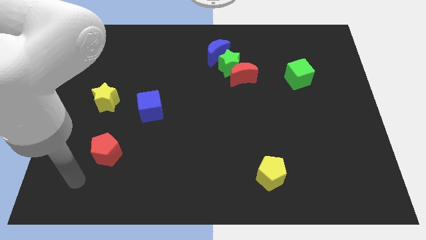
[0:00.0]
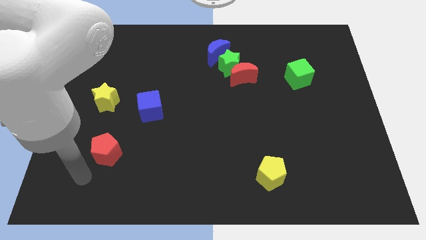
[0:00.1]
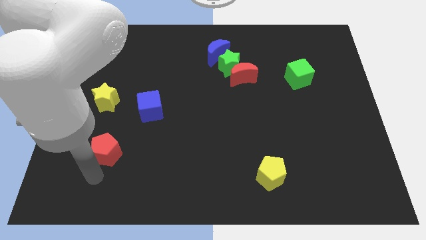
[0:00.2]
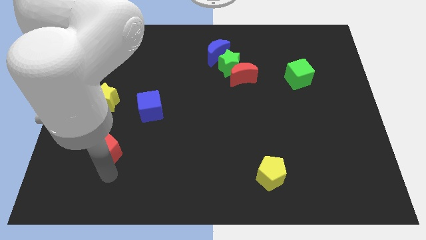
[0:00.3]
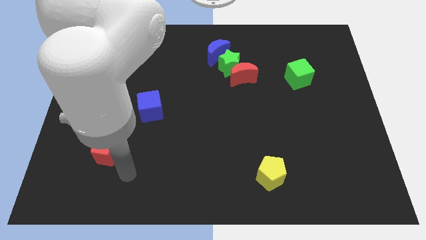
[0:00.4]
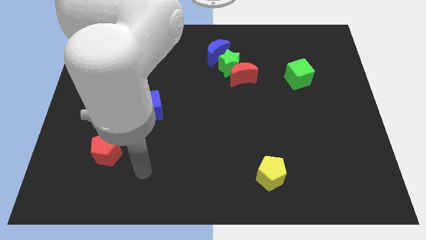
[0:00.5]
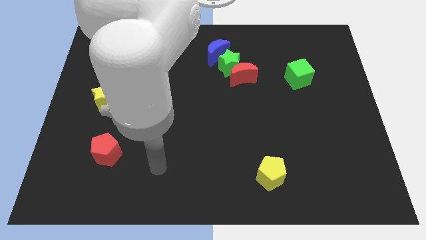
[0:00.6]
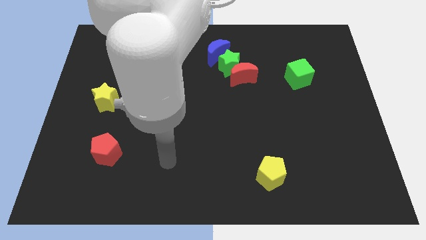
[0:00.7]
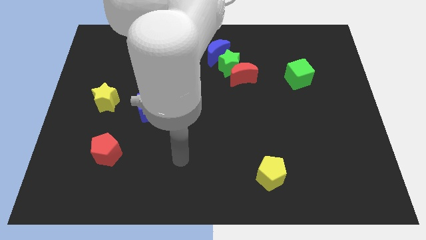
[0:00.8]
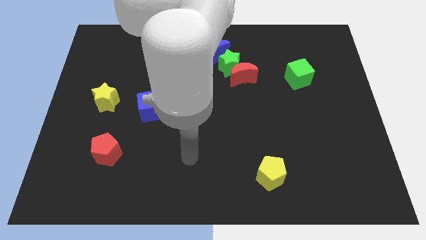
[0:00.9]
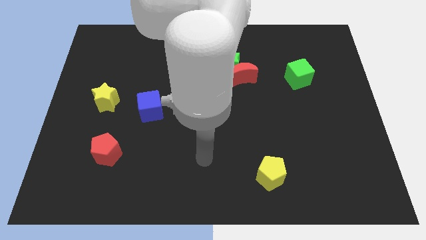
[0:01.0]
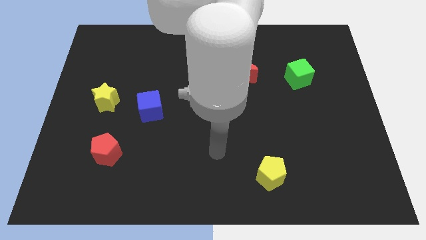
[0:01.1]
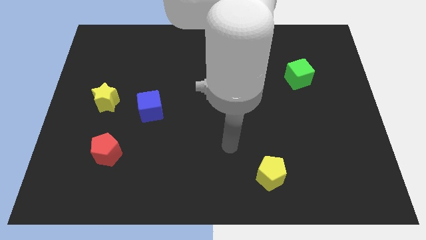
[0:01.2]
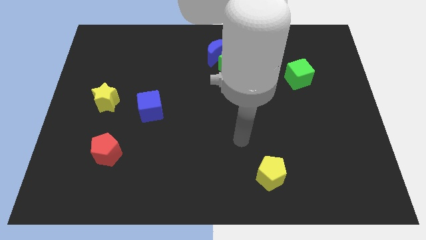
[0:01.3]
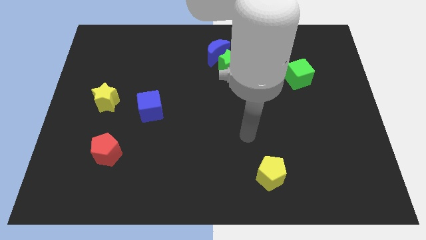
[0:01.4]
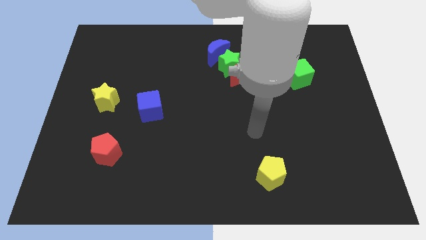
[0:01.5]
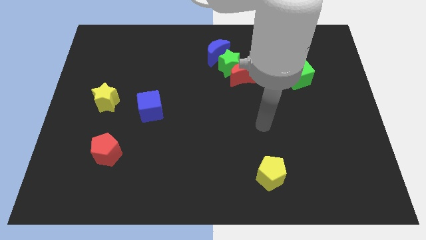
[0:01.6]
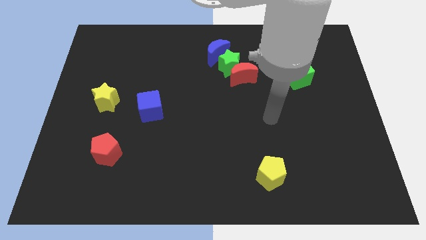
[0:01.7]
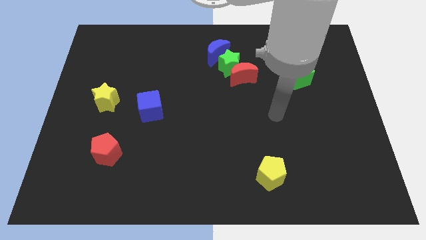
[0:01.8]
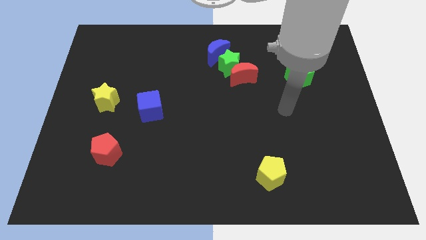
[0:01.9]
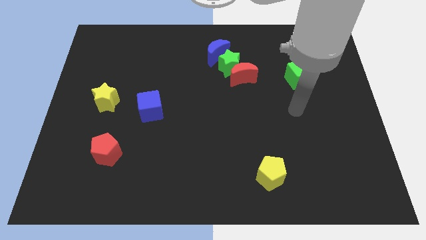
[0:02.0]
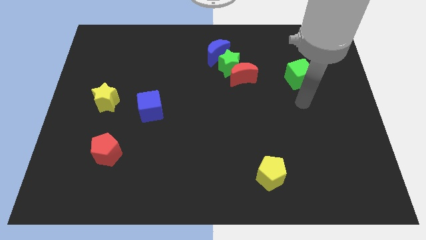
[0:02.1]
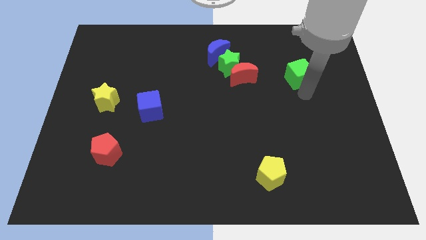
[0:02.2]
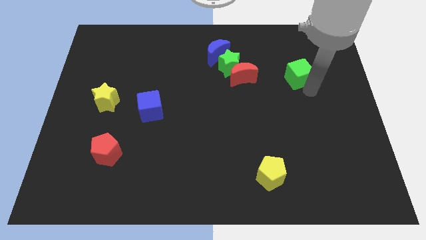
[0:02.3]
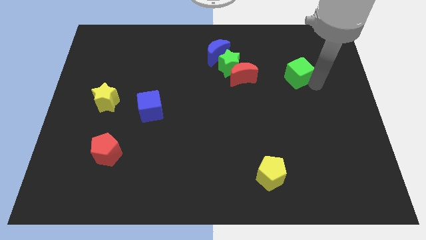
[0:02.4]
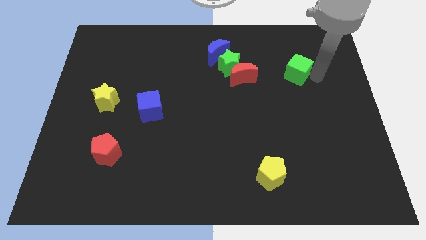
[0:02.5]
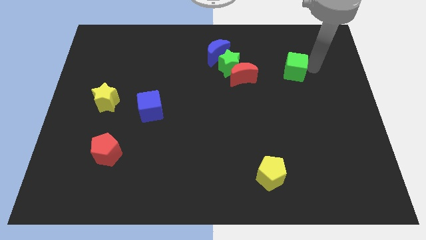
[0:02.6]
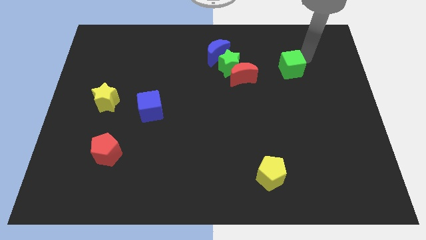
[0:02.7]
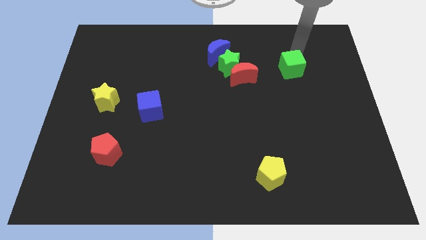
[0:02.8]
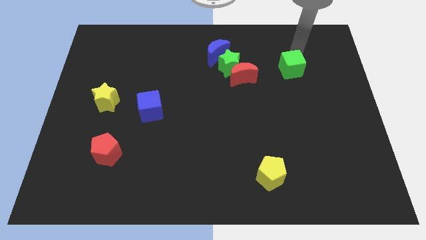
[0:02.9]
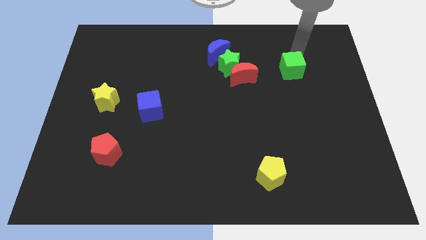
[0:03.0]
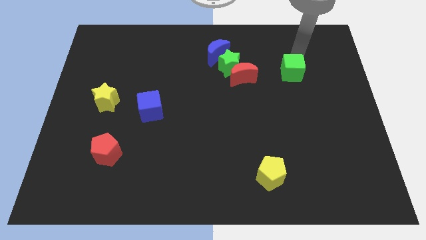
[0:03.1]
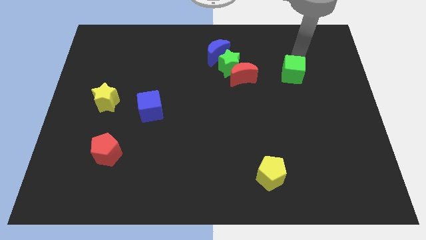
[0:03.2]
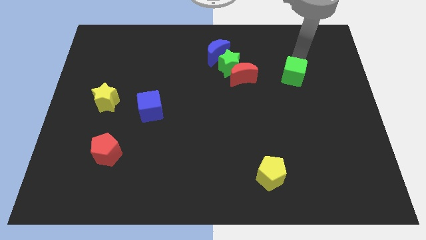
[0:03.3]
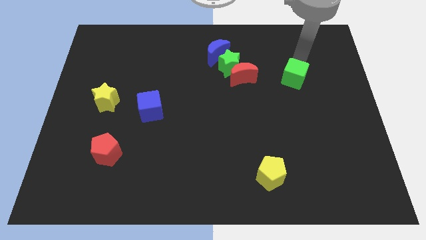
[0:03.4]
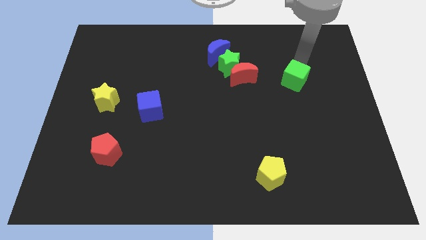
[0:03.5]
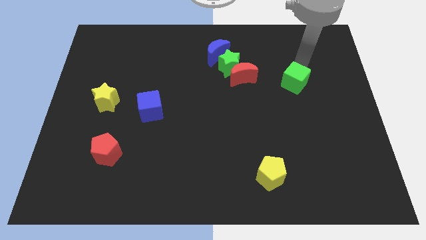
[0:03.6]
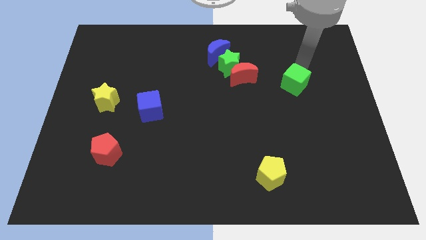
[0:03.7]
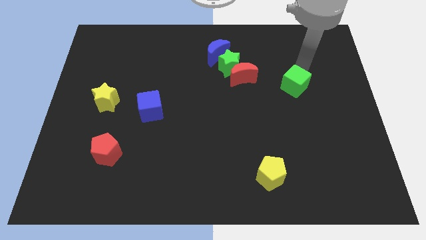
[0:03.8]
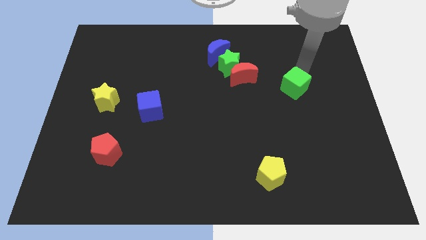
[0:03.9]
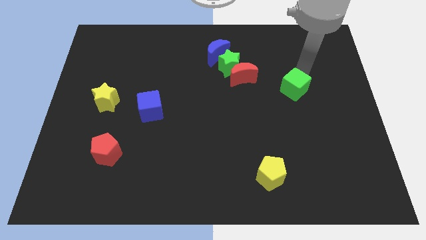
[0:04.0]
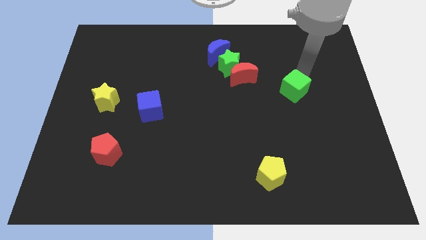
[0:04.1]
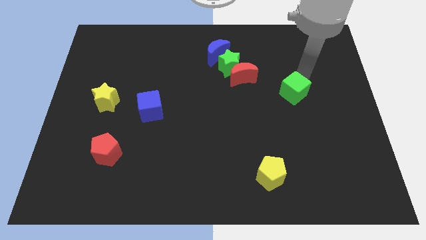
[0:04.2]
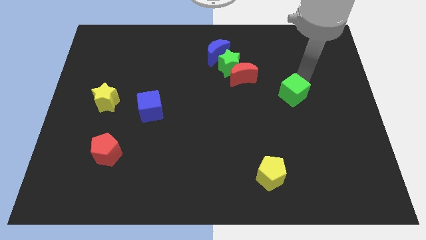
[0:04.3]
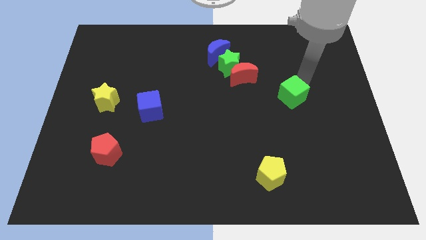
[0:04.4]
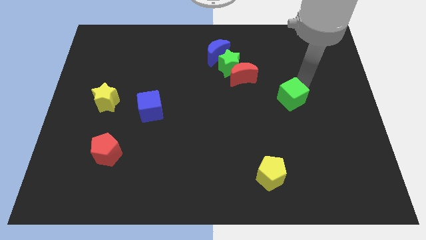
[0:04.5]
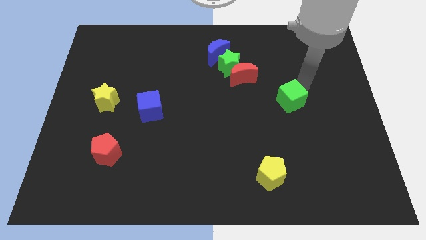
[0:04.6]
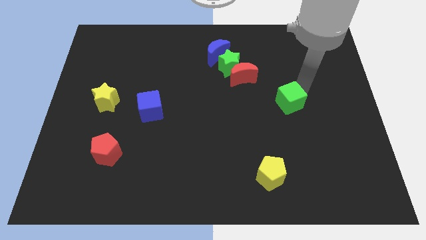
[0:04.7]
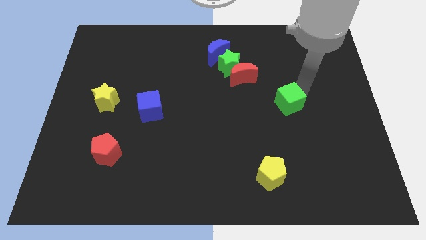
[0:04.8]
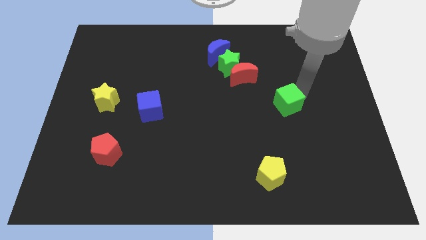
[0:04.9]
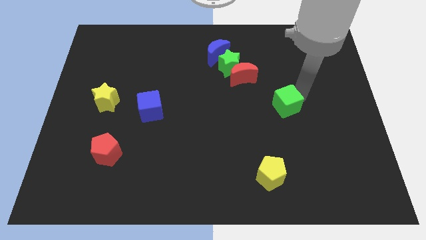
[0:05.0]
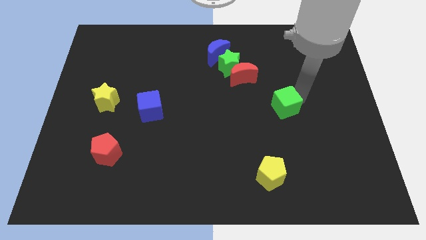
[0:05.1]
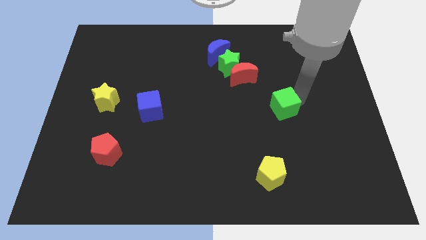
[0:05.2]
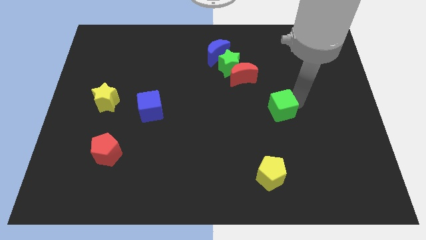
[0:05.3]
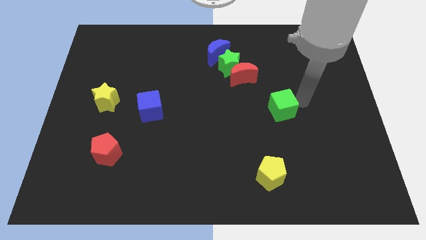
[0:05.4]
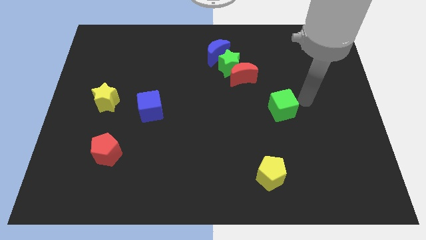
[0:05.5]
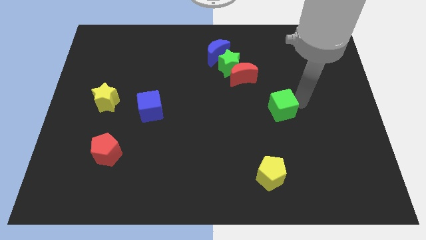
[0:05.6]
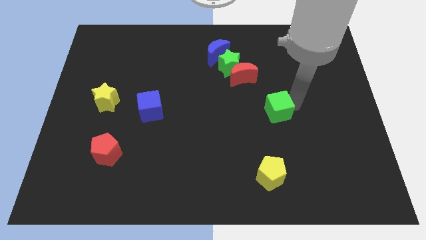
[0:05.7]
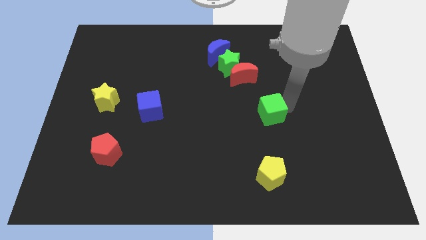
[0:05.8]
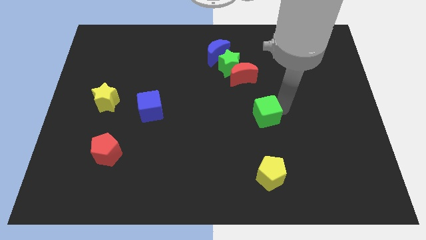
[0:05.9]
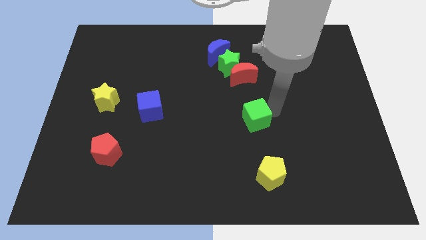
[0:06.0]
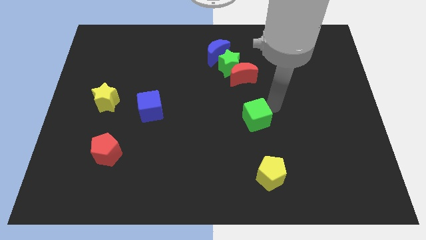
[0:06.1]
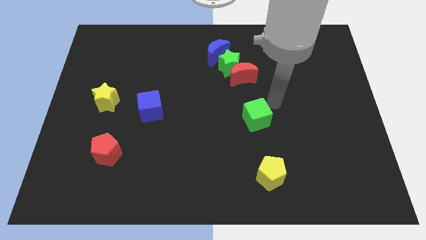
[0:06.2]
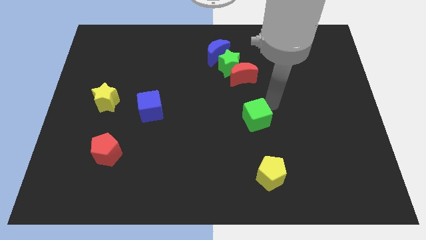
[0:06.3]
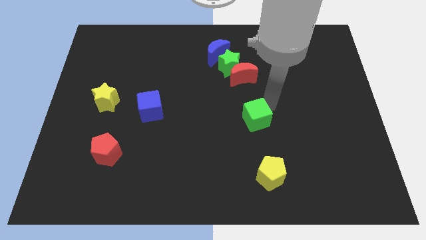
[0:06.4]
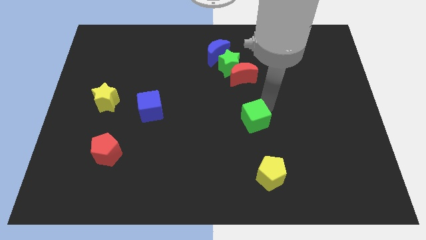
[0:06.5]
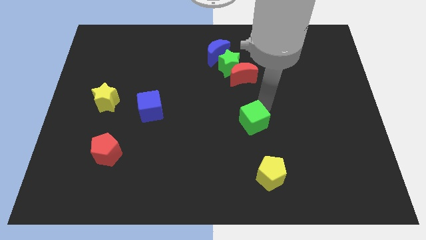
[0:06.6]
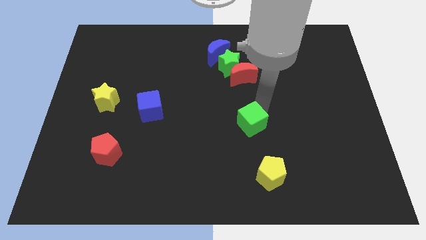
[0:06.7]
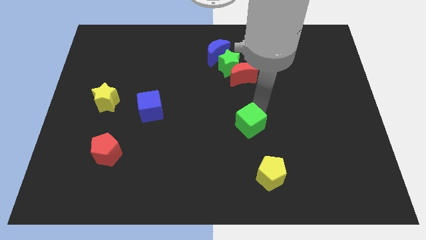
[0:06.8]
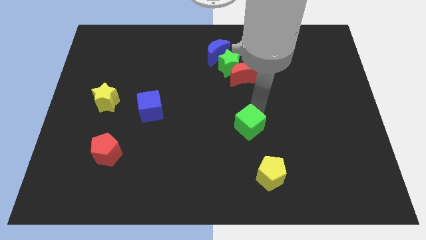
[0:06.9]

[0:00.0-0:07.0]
slide the green cube downwards and then left

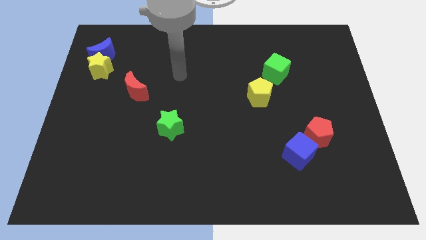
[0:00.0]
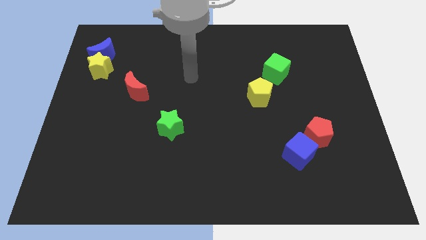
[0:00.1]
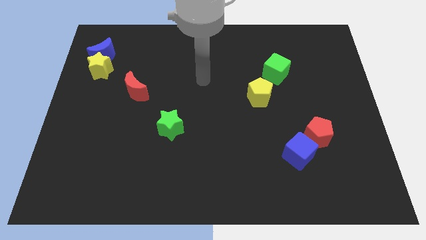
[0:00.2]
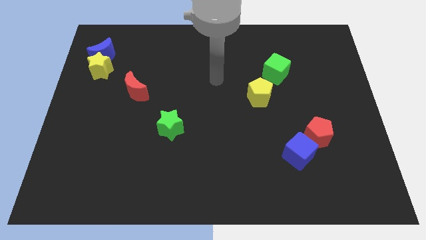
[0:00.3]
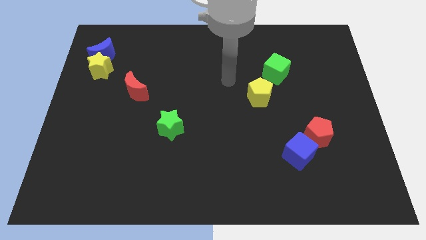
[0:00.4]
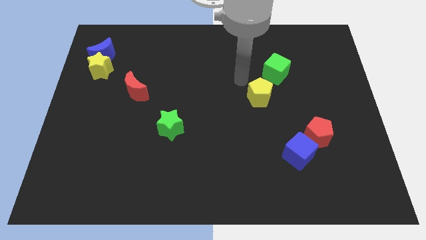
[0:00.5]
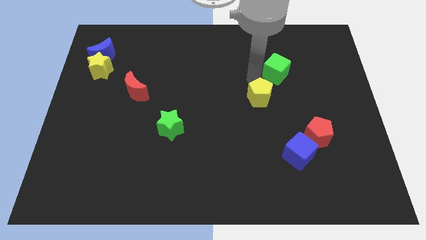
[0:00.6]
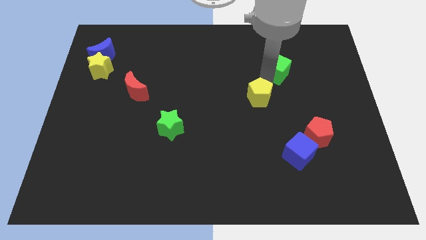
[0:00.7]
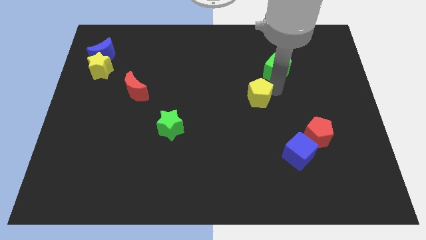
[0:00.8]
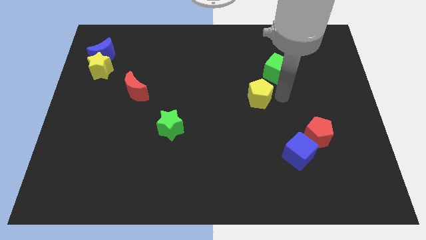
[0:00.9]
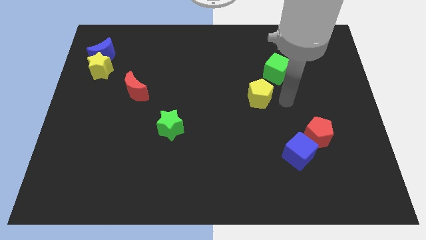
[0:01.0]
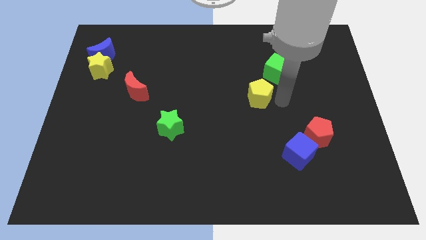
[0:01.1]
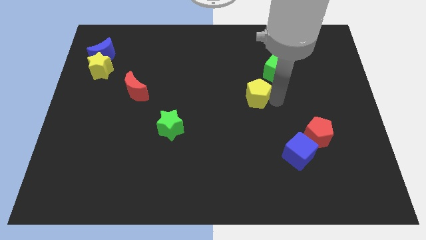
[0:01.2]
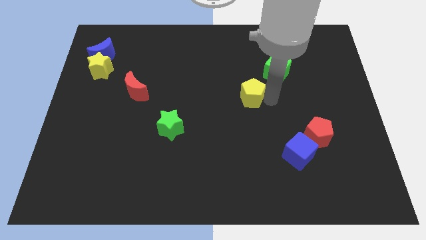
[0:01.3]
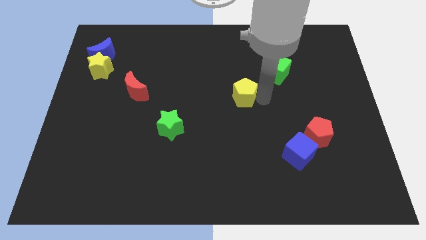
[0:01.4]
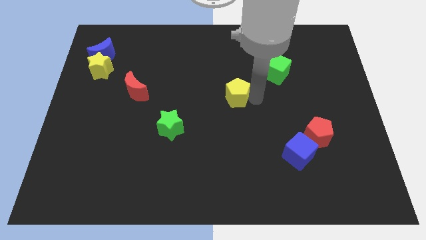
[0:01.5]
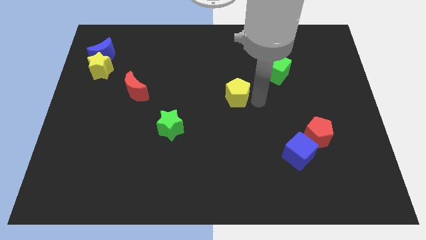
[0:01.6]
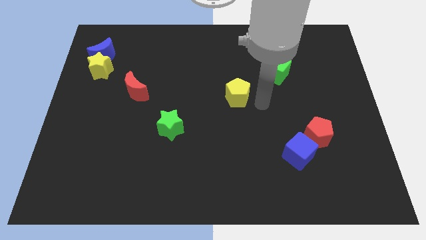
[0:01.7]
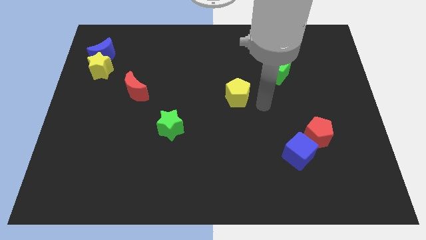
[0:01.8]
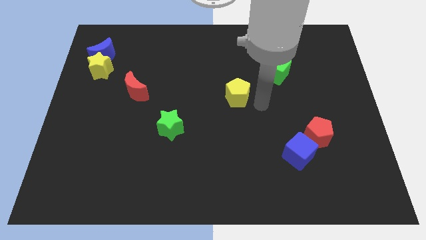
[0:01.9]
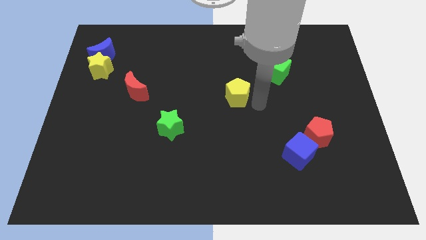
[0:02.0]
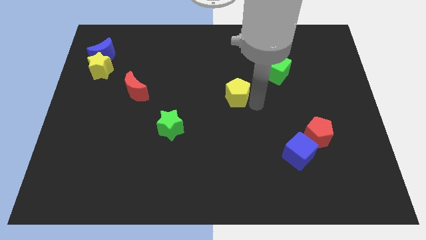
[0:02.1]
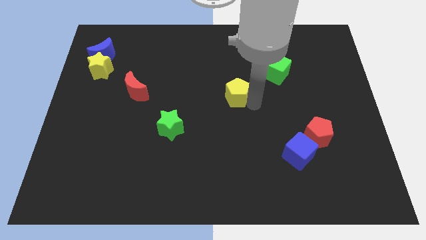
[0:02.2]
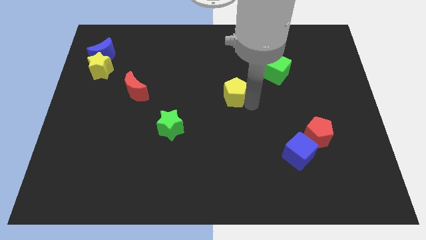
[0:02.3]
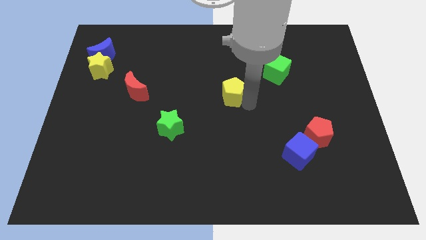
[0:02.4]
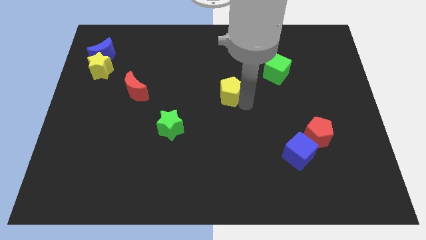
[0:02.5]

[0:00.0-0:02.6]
move the yellow pentagon left a bit
